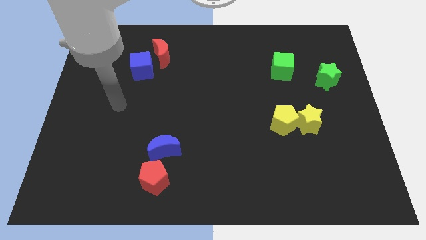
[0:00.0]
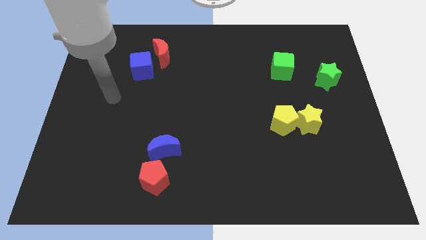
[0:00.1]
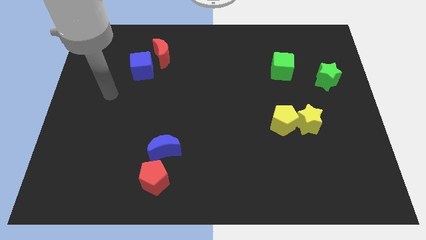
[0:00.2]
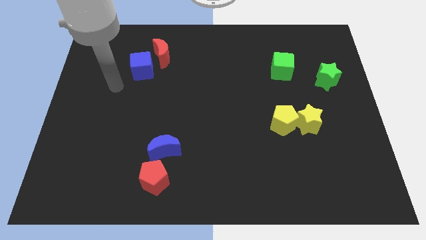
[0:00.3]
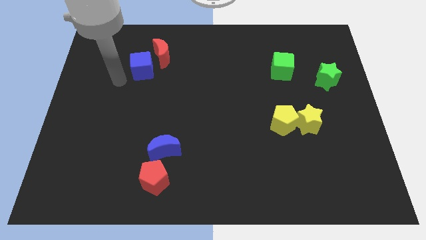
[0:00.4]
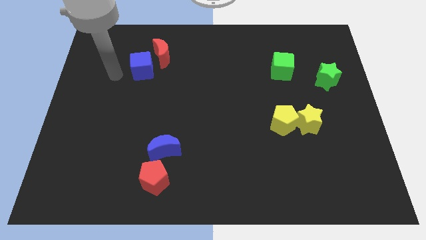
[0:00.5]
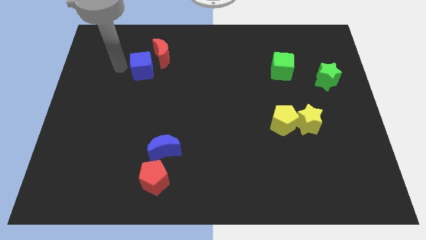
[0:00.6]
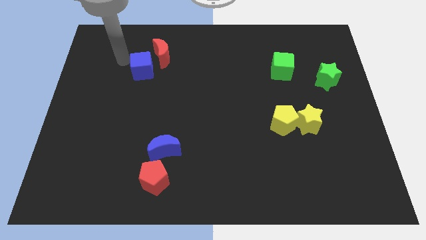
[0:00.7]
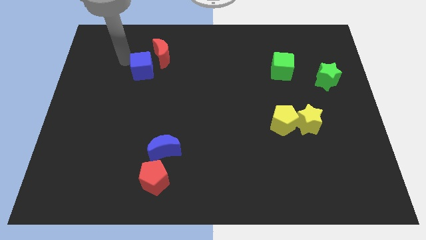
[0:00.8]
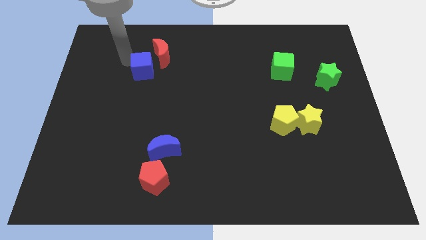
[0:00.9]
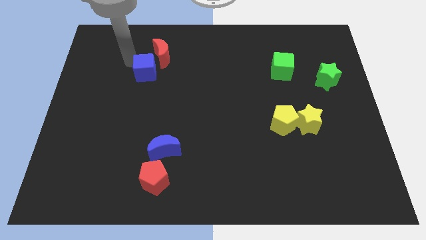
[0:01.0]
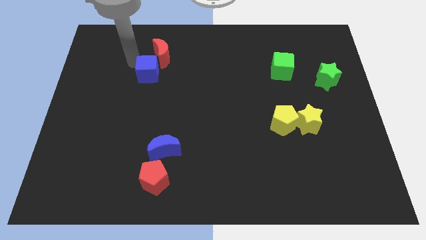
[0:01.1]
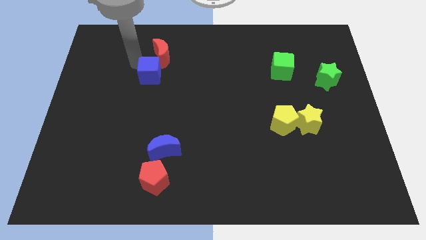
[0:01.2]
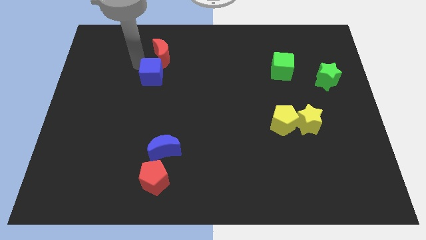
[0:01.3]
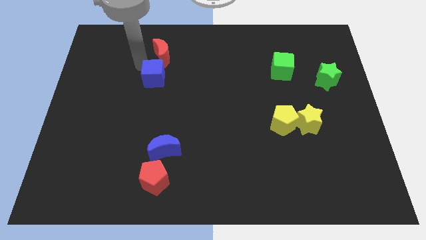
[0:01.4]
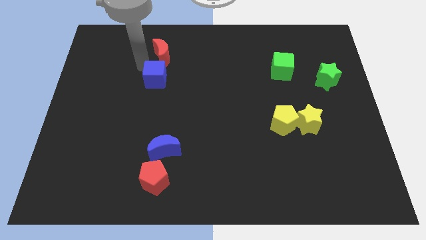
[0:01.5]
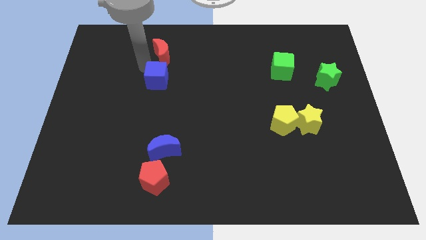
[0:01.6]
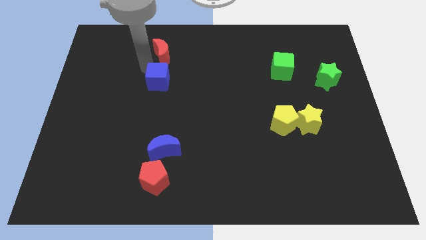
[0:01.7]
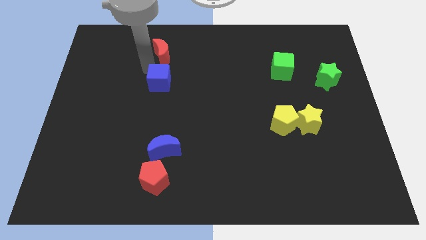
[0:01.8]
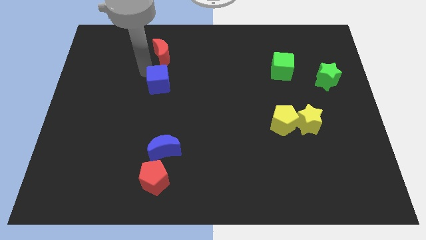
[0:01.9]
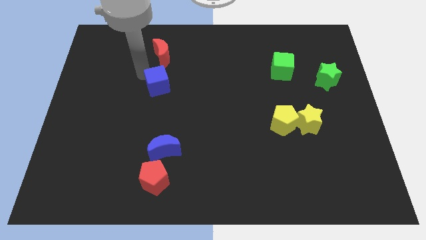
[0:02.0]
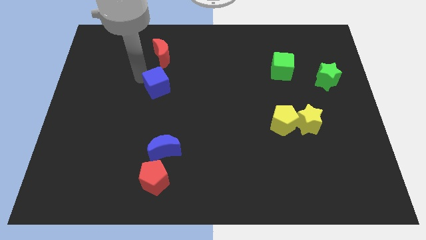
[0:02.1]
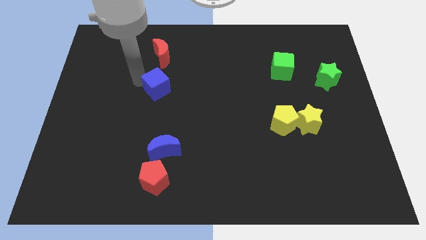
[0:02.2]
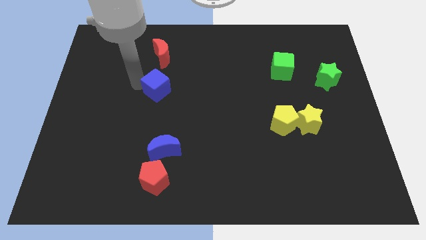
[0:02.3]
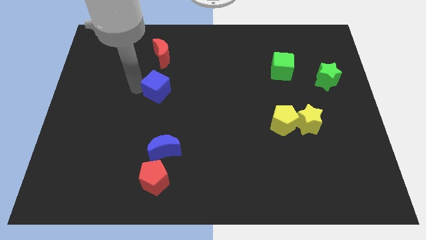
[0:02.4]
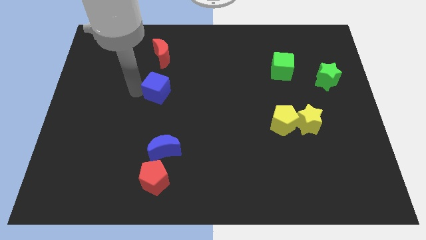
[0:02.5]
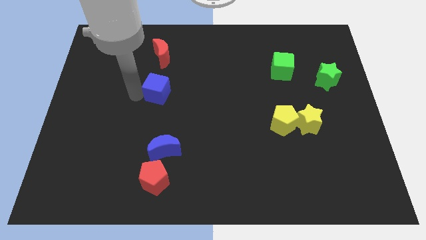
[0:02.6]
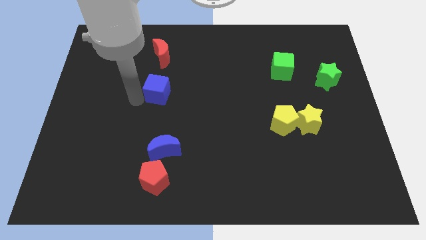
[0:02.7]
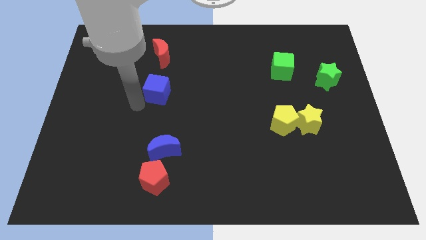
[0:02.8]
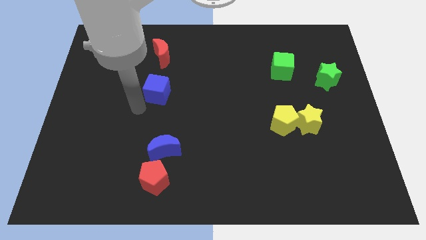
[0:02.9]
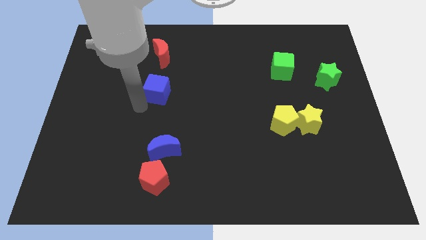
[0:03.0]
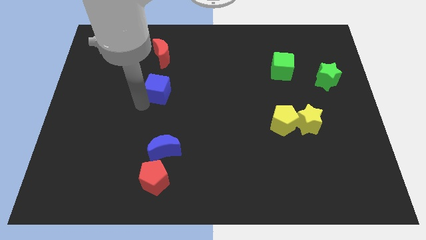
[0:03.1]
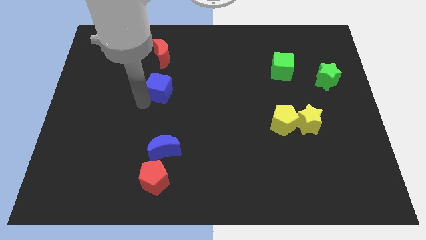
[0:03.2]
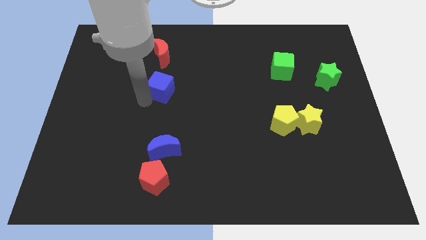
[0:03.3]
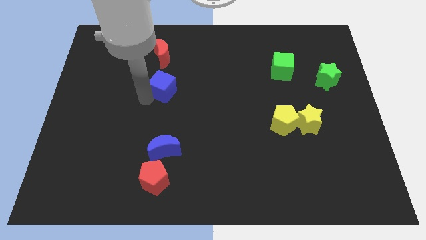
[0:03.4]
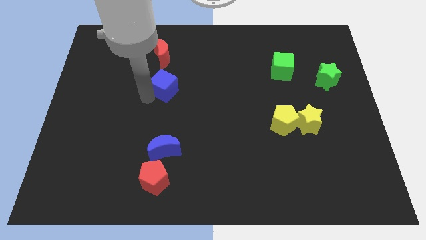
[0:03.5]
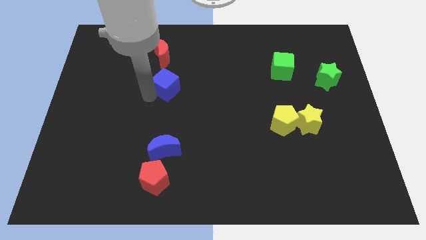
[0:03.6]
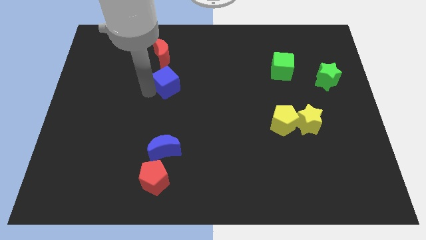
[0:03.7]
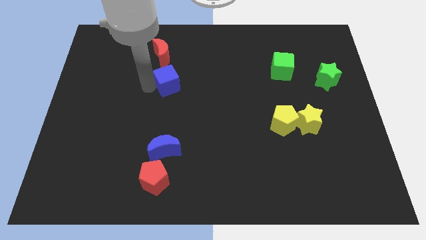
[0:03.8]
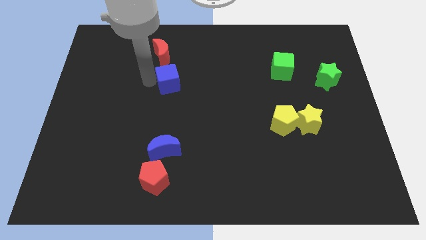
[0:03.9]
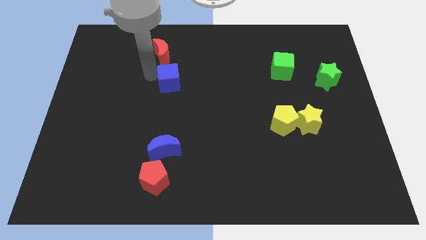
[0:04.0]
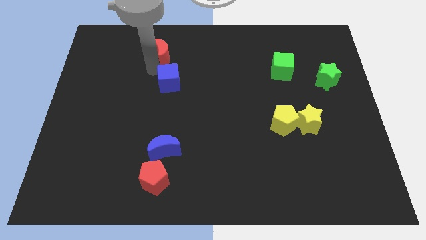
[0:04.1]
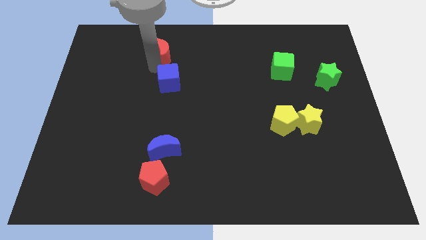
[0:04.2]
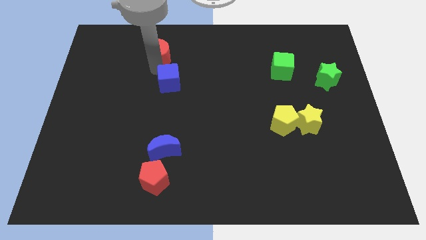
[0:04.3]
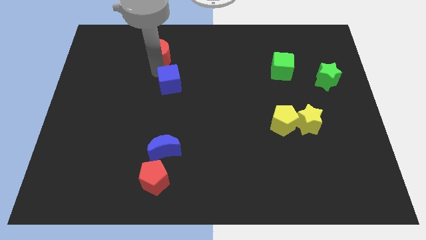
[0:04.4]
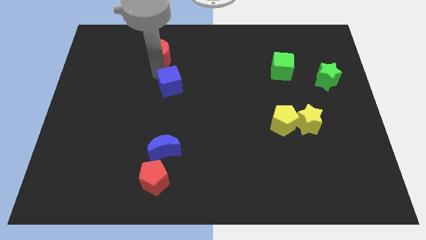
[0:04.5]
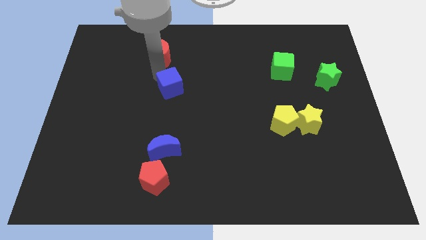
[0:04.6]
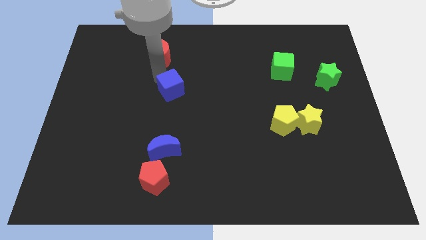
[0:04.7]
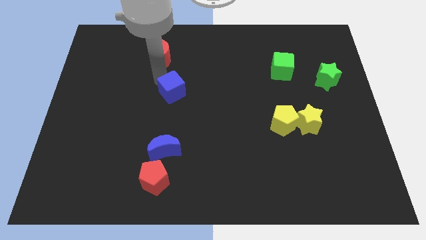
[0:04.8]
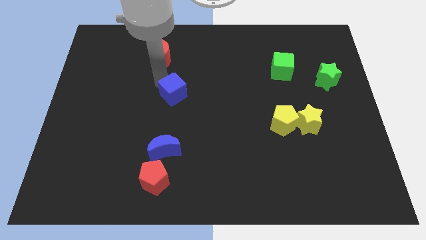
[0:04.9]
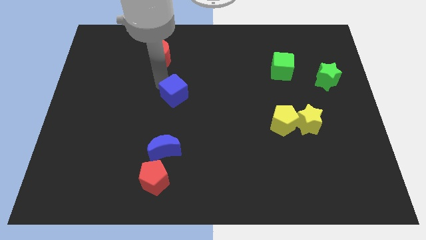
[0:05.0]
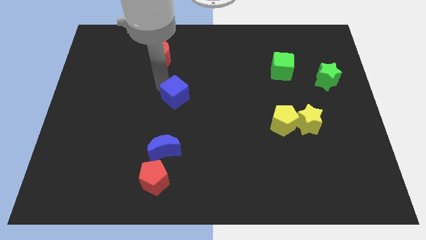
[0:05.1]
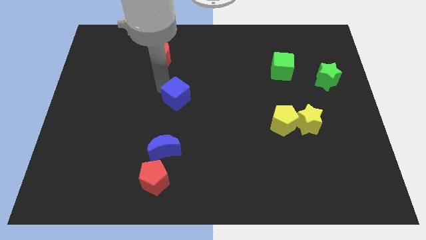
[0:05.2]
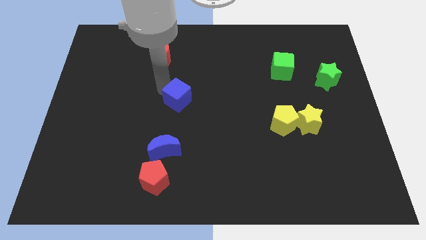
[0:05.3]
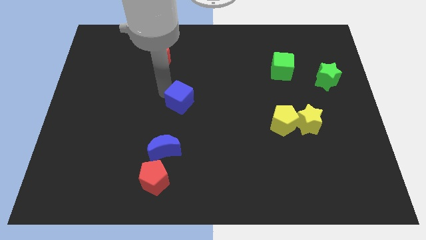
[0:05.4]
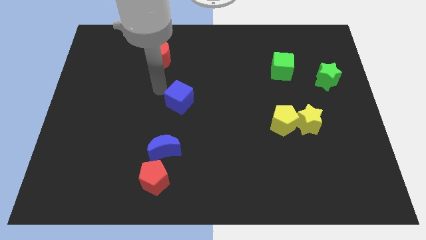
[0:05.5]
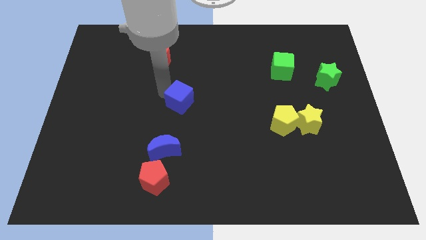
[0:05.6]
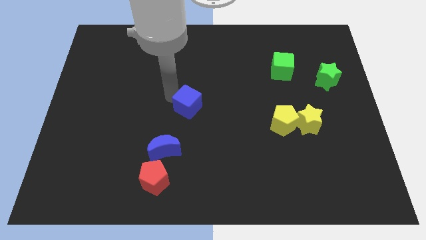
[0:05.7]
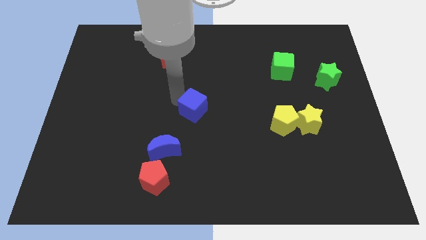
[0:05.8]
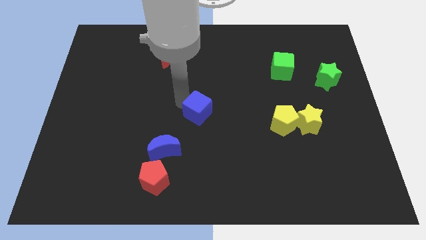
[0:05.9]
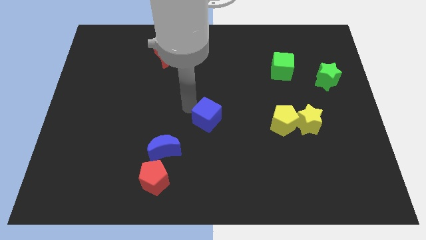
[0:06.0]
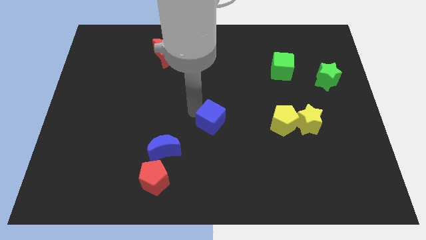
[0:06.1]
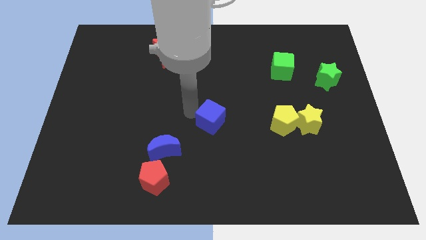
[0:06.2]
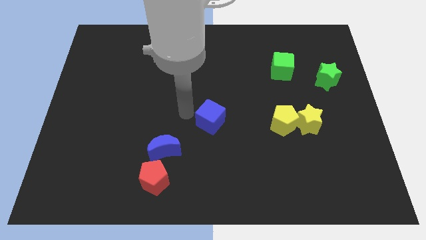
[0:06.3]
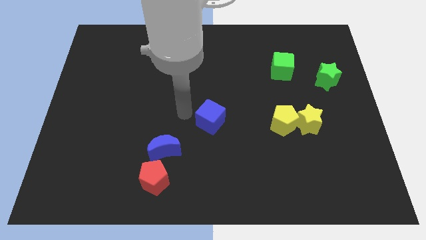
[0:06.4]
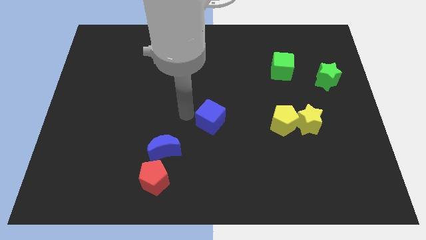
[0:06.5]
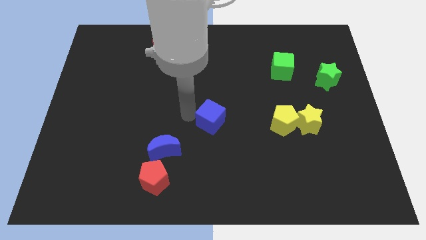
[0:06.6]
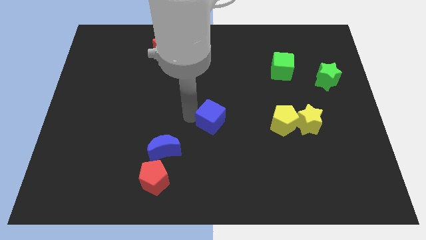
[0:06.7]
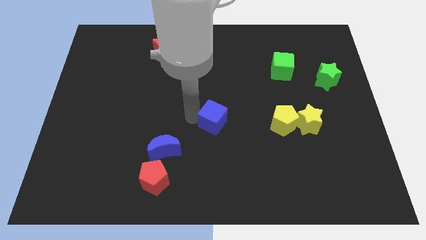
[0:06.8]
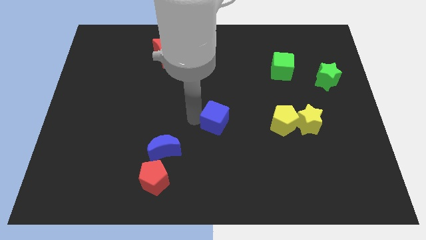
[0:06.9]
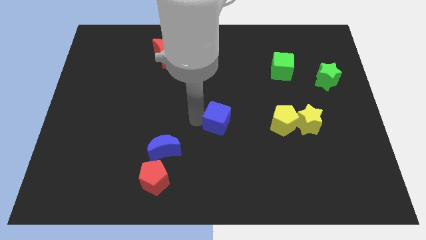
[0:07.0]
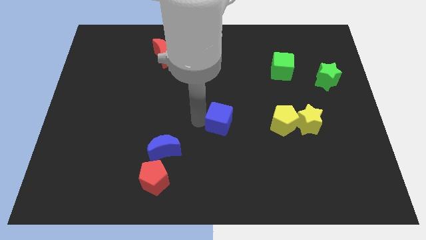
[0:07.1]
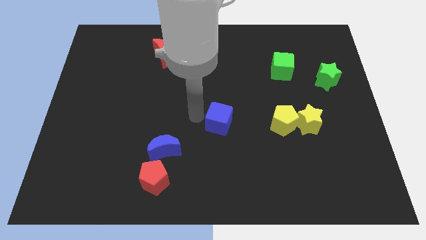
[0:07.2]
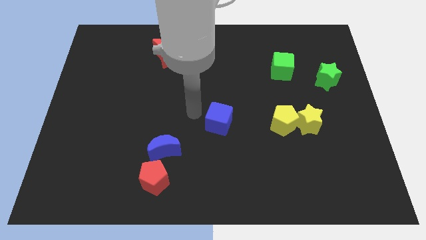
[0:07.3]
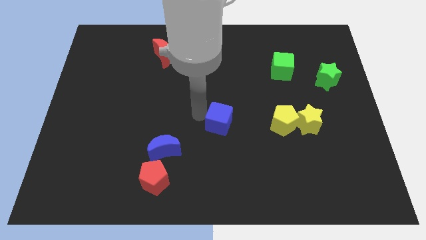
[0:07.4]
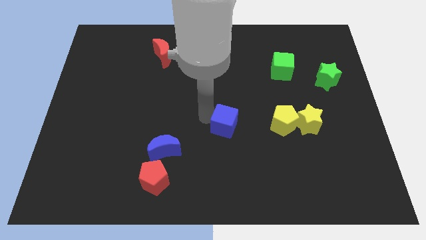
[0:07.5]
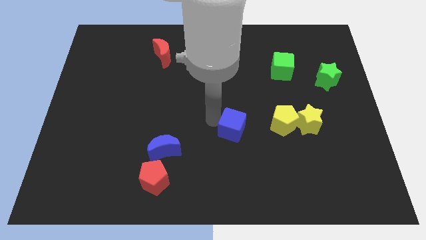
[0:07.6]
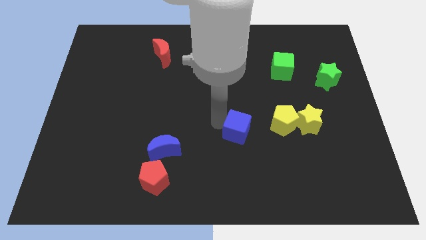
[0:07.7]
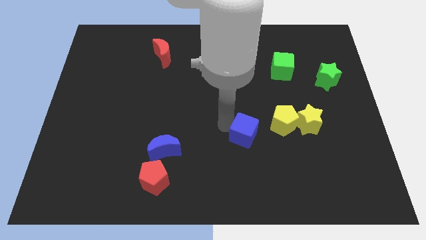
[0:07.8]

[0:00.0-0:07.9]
push the blue cube to the bottom left side of the yellow pentagon
